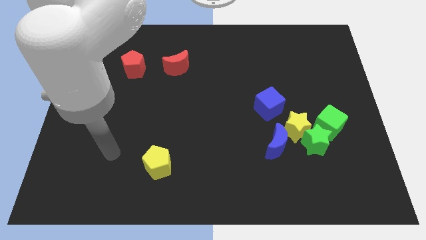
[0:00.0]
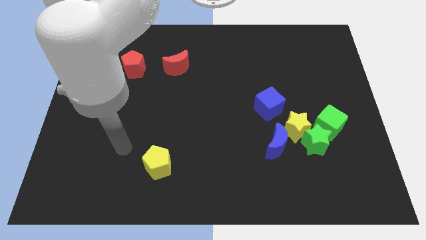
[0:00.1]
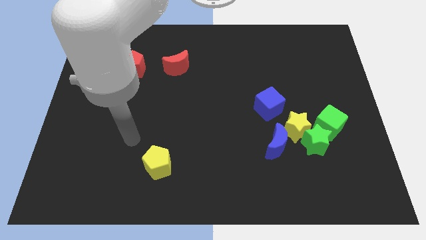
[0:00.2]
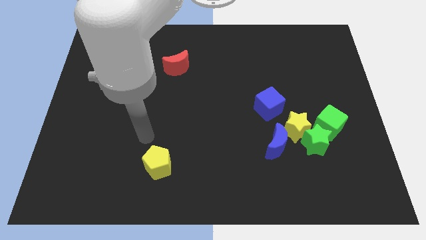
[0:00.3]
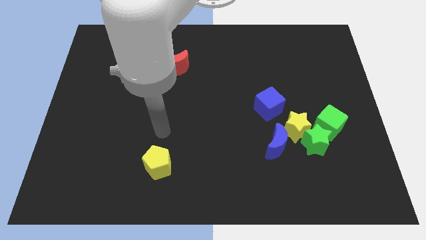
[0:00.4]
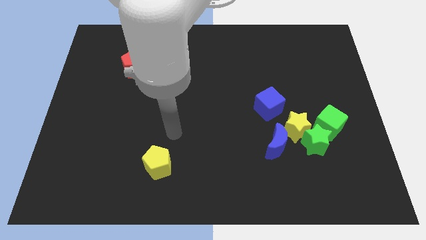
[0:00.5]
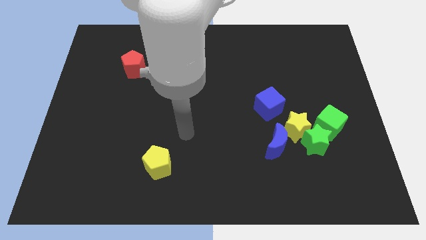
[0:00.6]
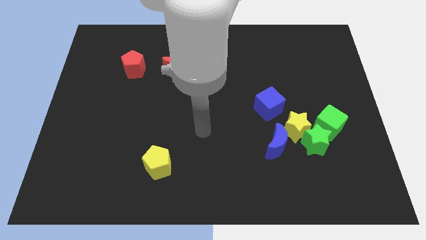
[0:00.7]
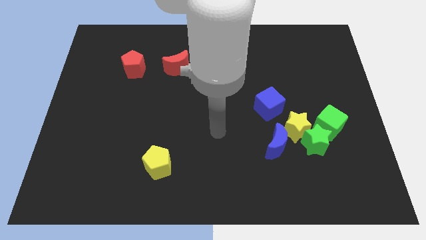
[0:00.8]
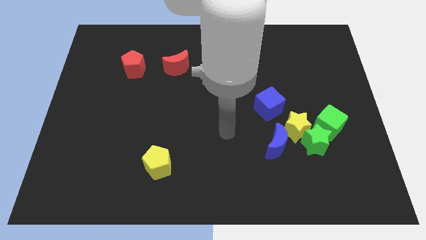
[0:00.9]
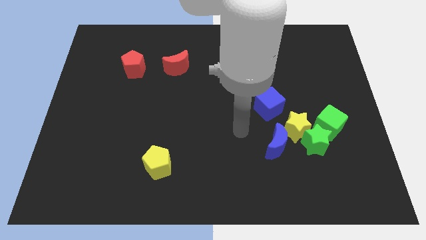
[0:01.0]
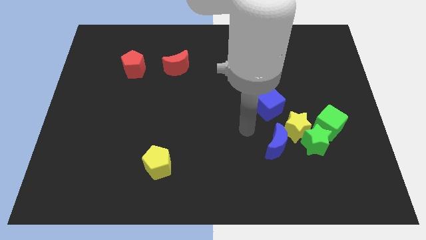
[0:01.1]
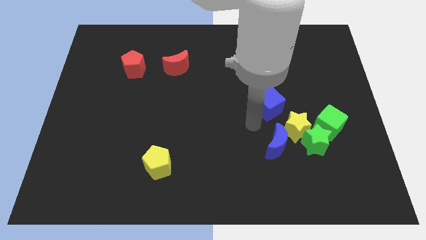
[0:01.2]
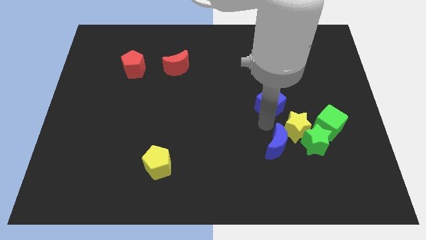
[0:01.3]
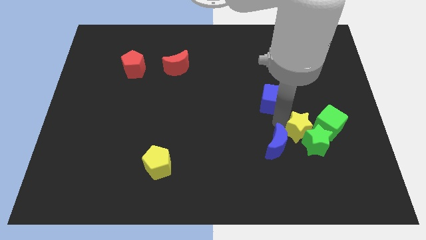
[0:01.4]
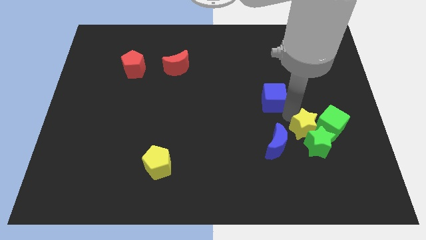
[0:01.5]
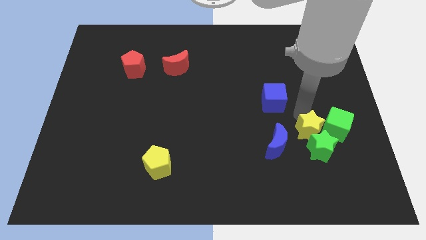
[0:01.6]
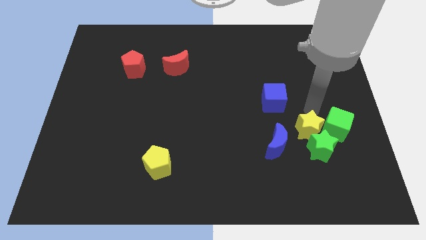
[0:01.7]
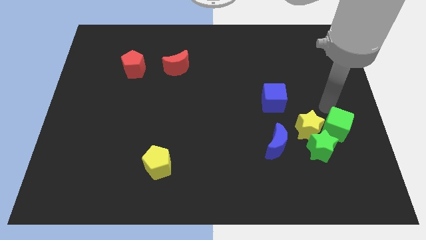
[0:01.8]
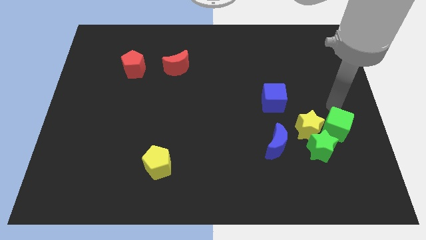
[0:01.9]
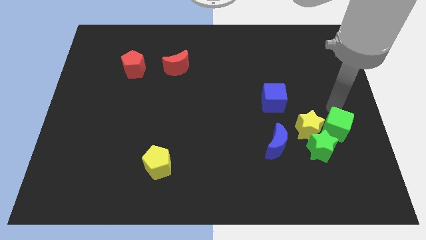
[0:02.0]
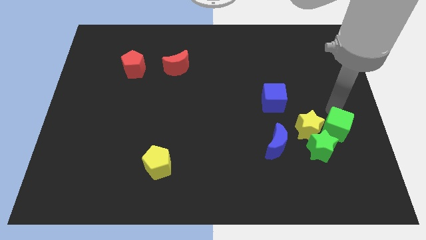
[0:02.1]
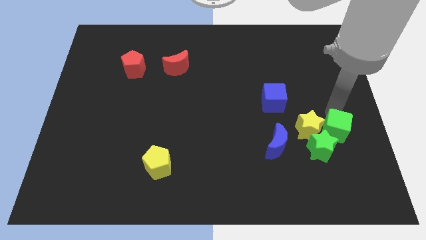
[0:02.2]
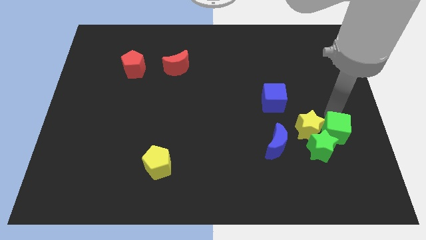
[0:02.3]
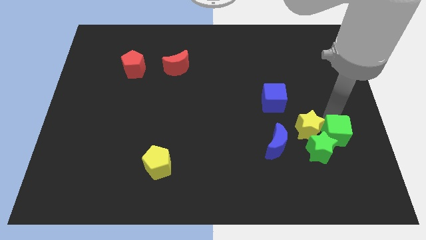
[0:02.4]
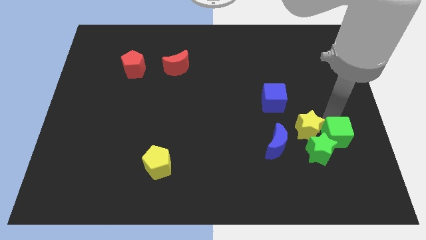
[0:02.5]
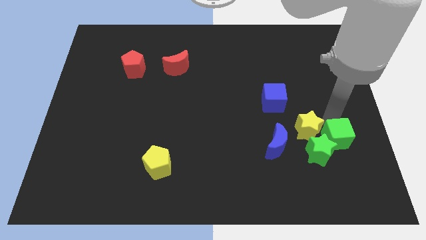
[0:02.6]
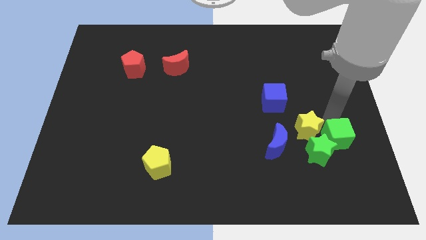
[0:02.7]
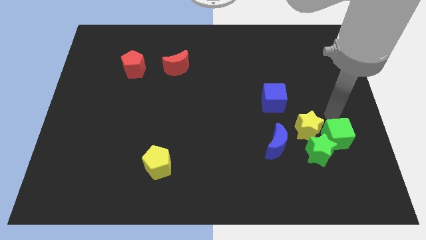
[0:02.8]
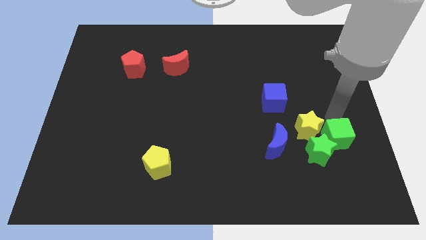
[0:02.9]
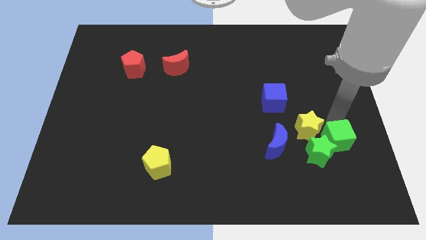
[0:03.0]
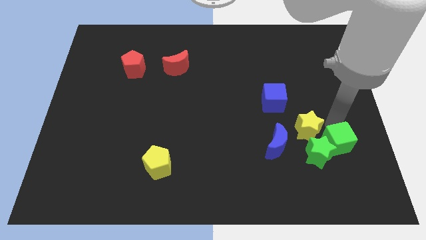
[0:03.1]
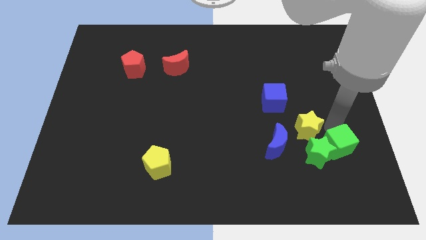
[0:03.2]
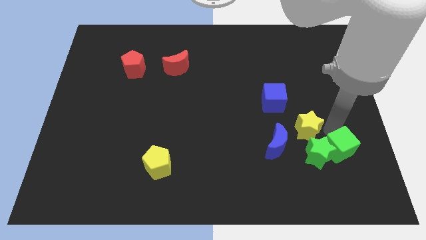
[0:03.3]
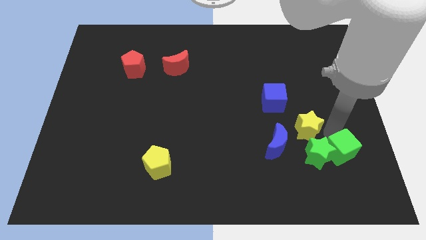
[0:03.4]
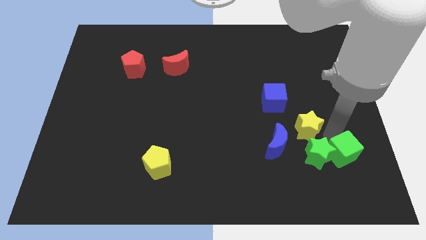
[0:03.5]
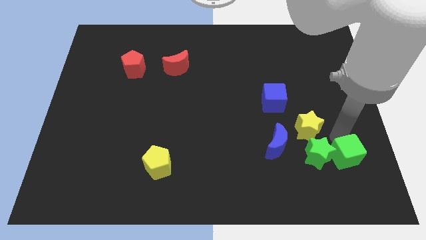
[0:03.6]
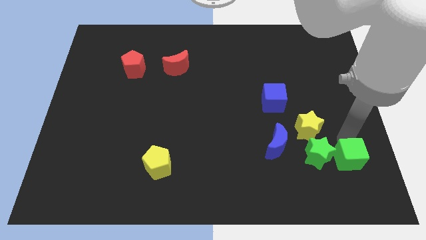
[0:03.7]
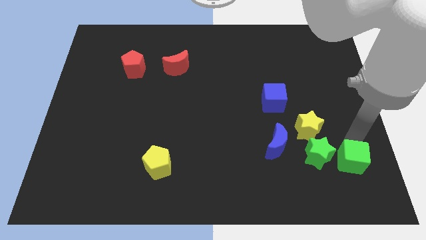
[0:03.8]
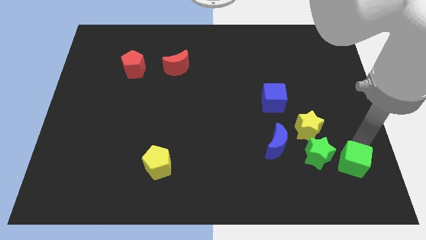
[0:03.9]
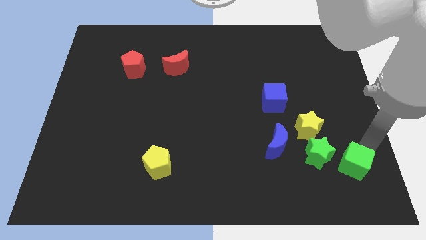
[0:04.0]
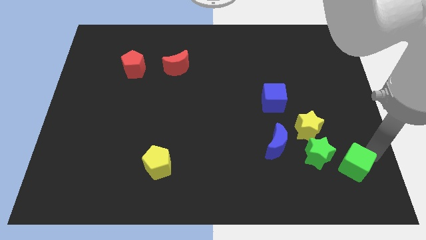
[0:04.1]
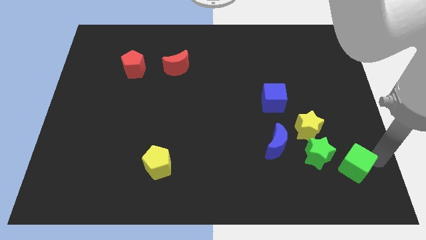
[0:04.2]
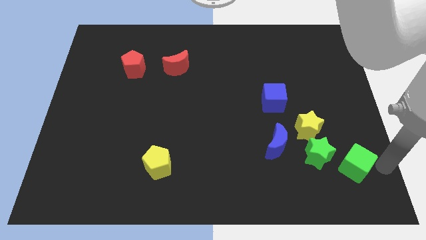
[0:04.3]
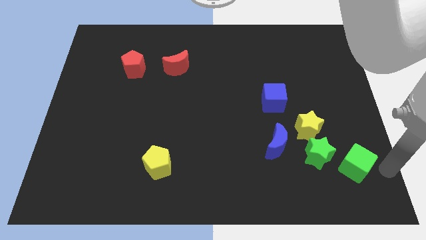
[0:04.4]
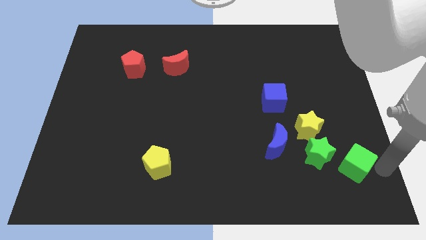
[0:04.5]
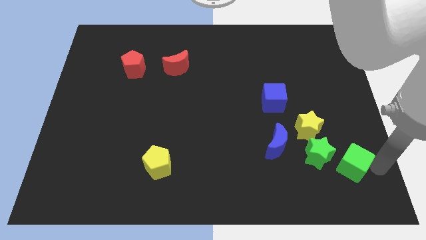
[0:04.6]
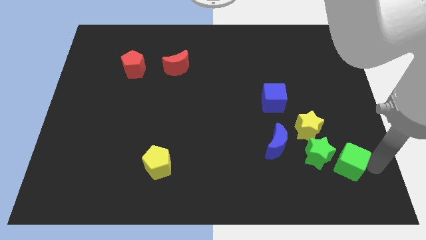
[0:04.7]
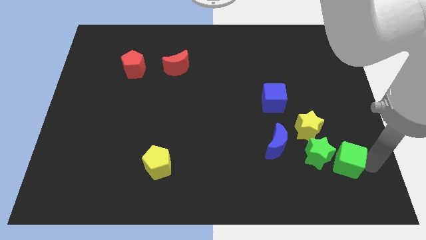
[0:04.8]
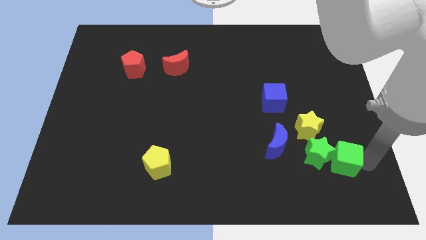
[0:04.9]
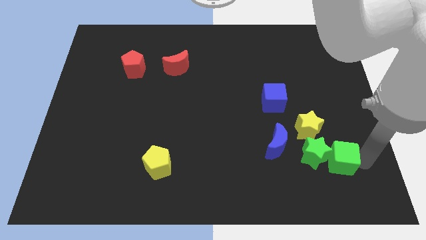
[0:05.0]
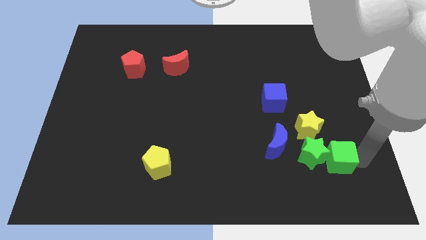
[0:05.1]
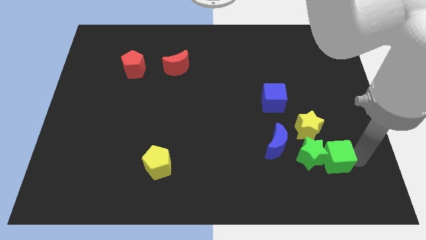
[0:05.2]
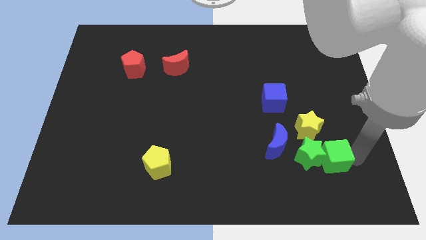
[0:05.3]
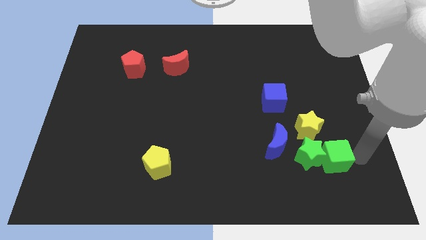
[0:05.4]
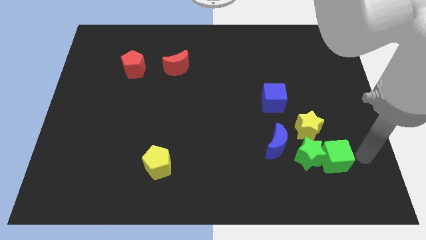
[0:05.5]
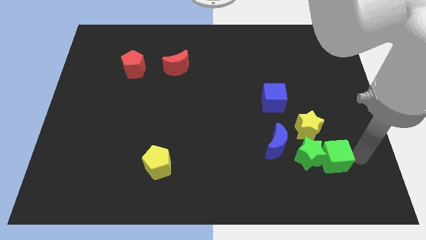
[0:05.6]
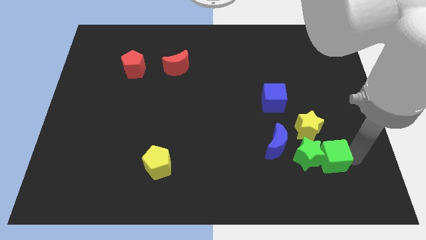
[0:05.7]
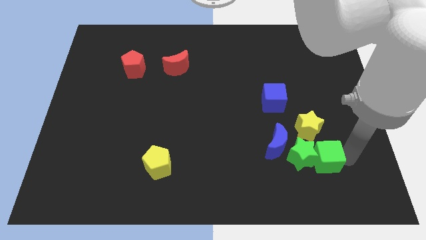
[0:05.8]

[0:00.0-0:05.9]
move the green cube a little downwards and to the left diagonally

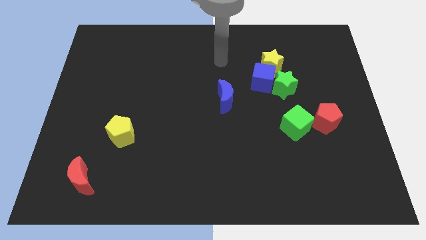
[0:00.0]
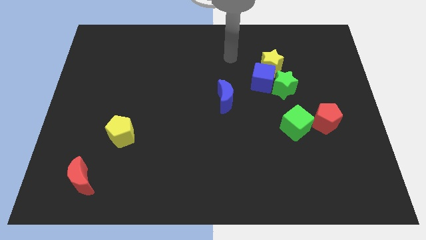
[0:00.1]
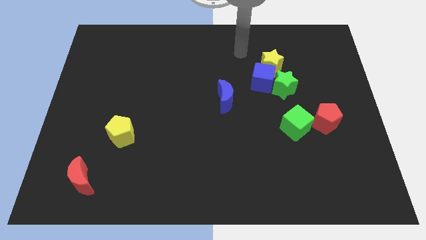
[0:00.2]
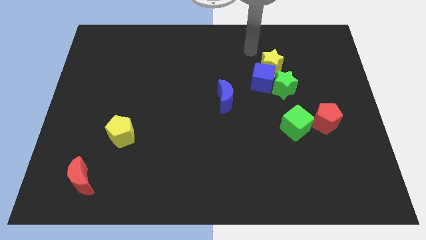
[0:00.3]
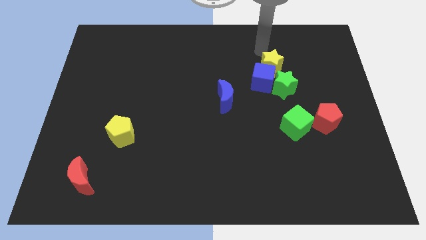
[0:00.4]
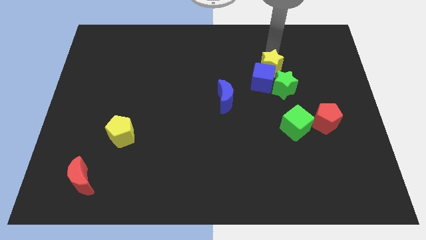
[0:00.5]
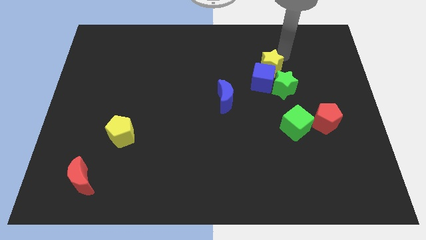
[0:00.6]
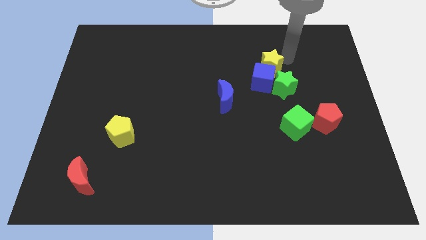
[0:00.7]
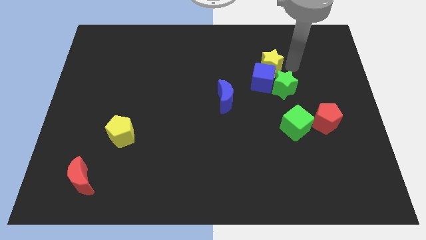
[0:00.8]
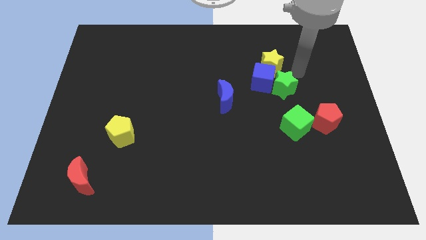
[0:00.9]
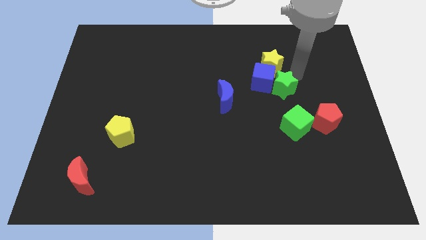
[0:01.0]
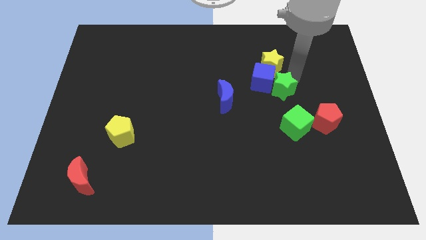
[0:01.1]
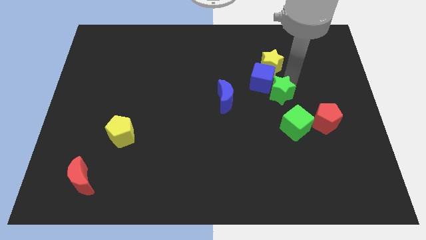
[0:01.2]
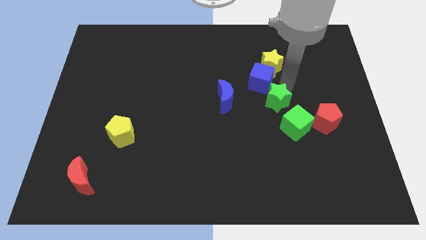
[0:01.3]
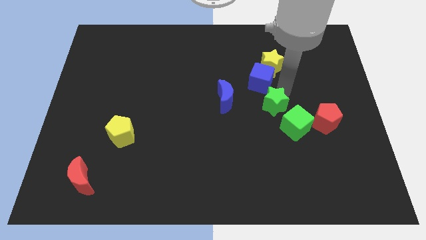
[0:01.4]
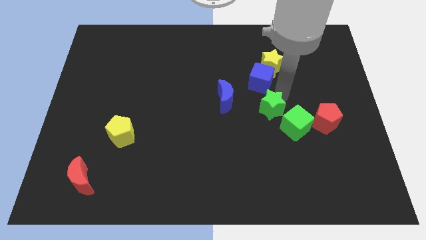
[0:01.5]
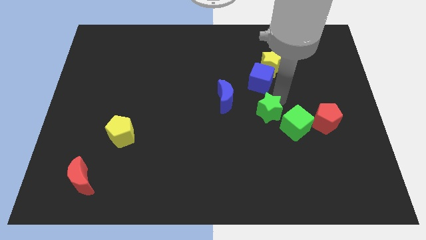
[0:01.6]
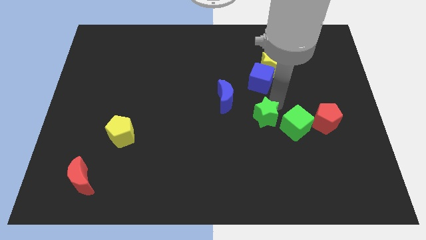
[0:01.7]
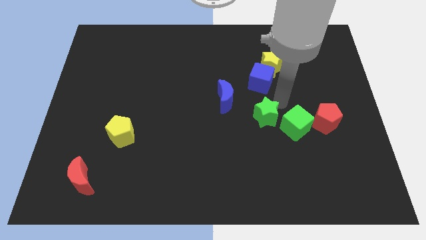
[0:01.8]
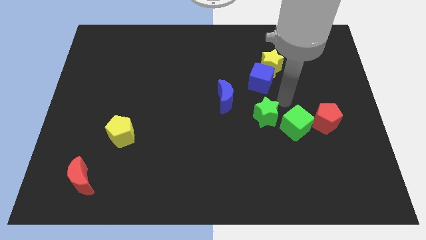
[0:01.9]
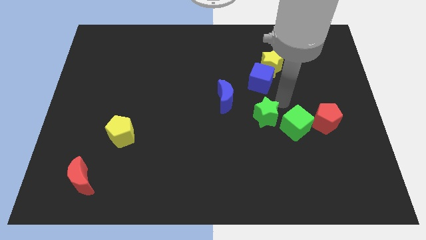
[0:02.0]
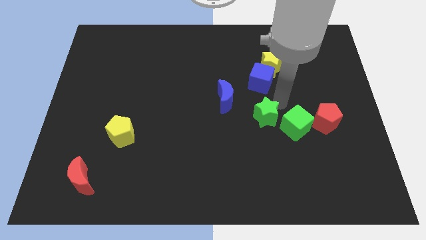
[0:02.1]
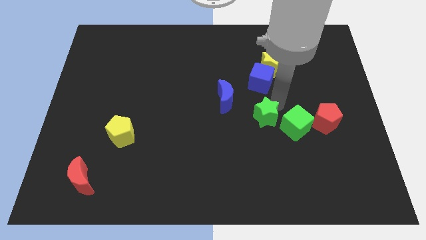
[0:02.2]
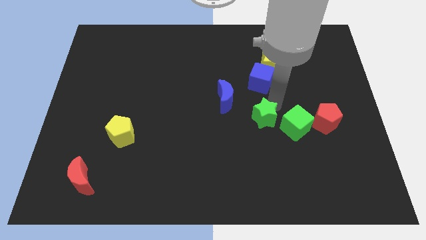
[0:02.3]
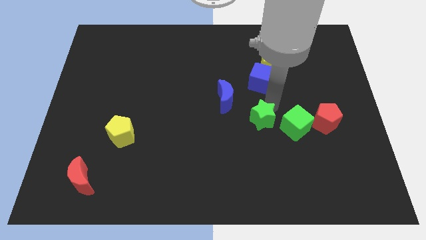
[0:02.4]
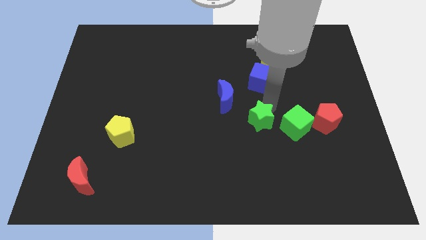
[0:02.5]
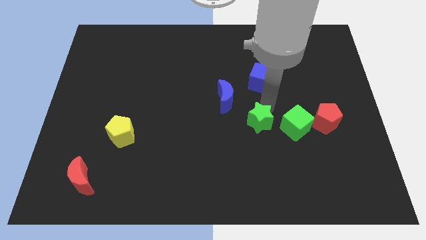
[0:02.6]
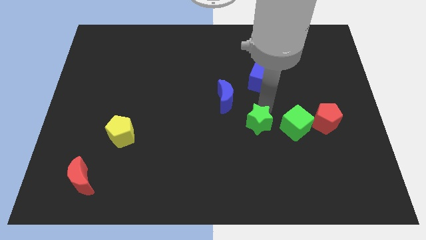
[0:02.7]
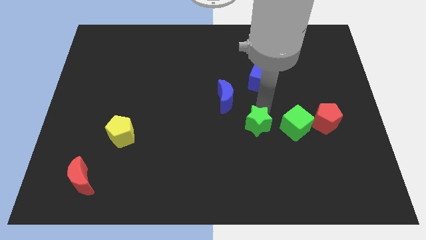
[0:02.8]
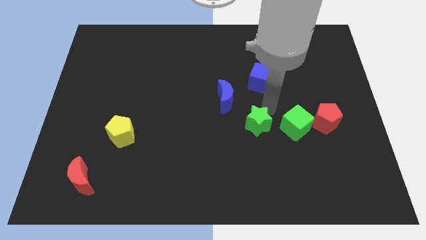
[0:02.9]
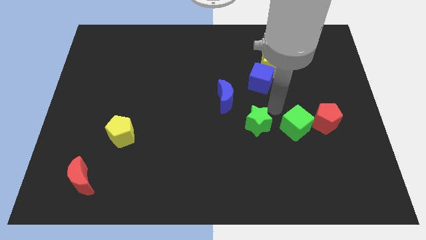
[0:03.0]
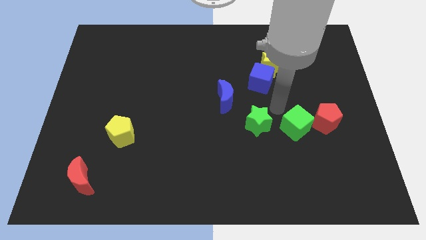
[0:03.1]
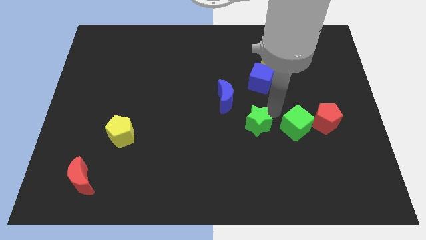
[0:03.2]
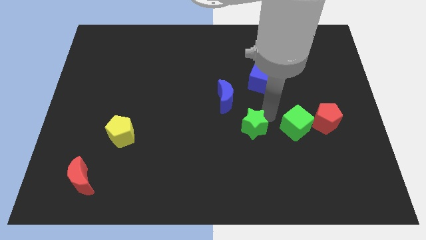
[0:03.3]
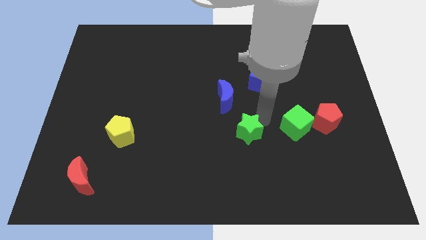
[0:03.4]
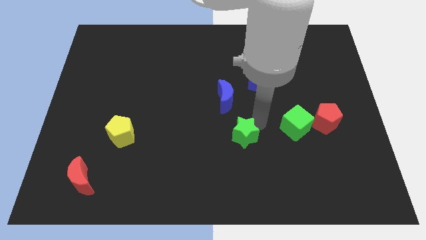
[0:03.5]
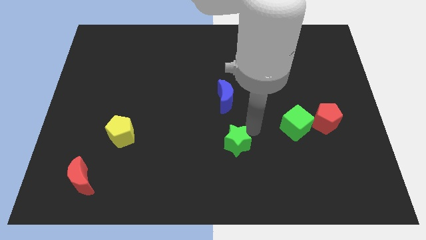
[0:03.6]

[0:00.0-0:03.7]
slide the green star downwards and then to the left
